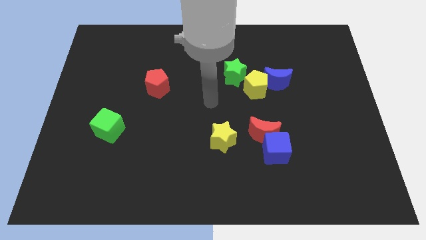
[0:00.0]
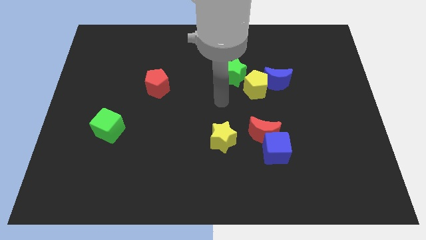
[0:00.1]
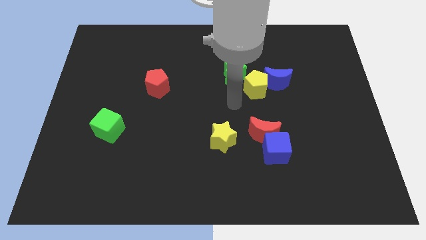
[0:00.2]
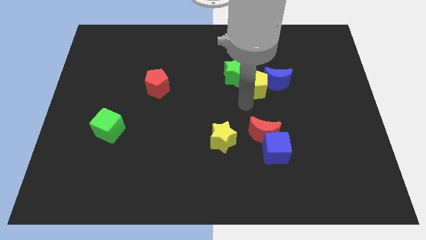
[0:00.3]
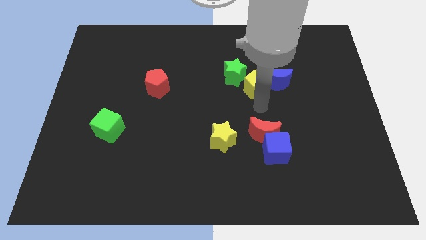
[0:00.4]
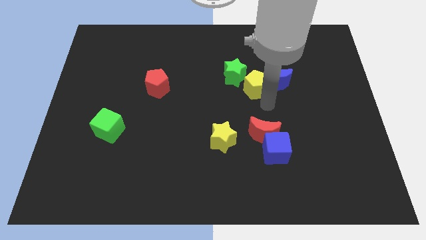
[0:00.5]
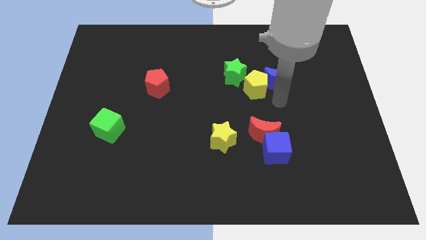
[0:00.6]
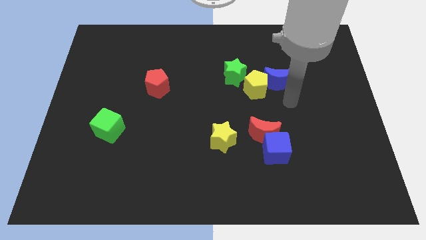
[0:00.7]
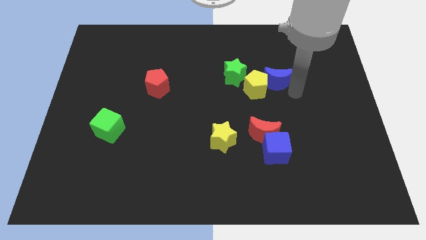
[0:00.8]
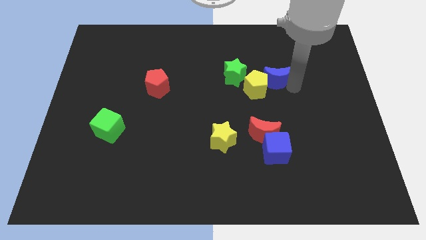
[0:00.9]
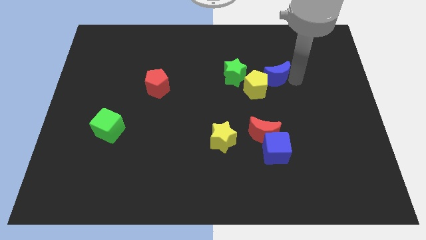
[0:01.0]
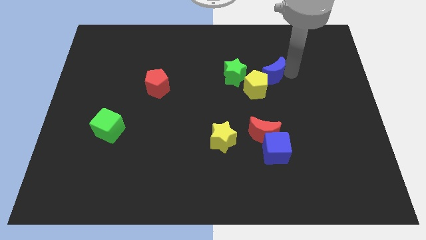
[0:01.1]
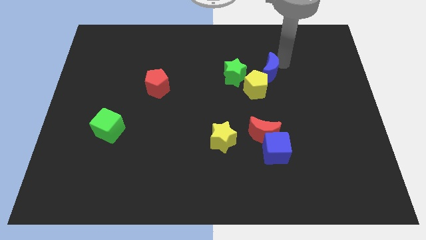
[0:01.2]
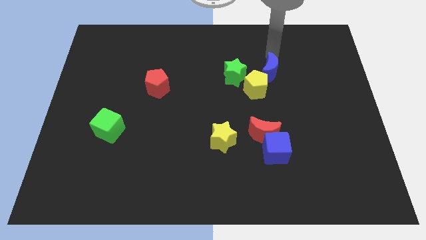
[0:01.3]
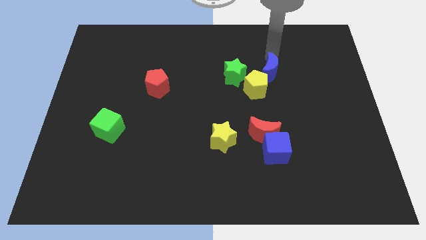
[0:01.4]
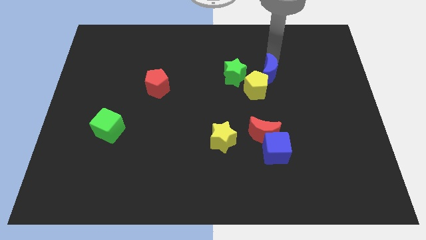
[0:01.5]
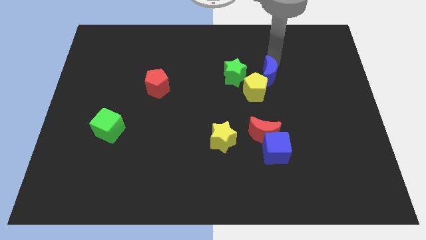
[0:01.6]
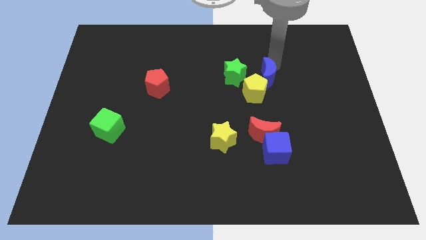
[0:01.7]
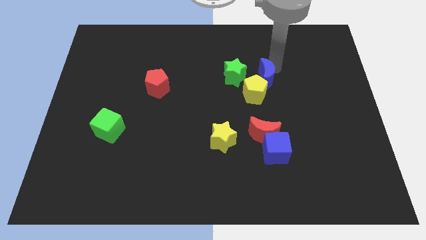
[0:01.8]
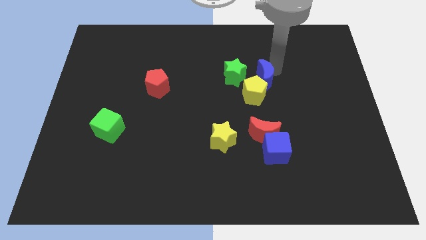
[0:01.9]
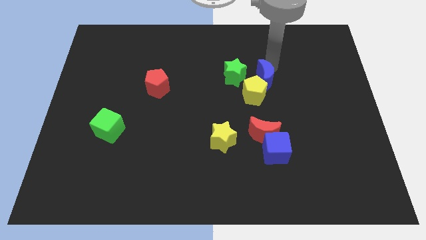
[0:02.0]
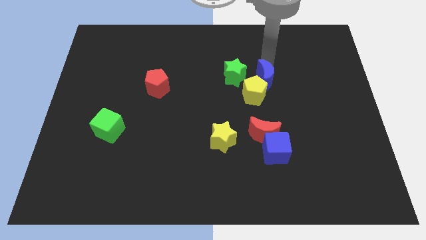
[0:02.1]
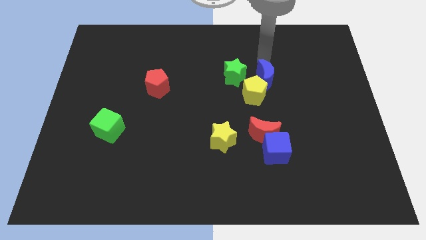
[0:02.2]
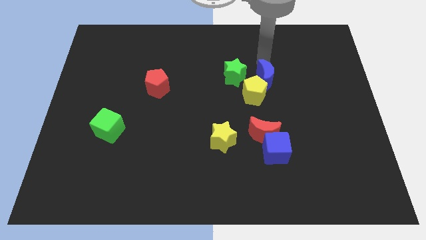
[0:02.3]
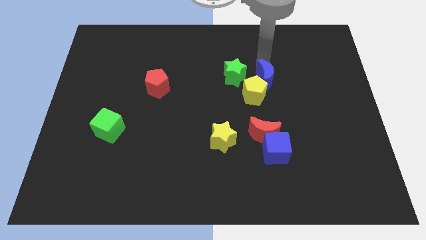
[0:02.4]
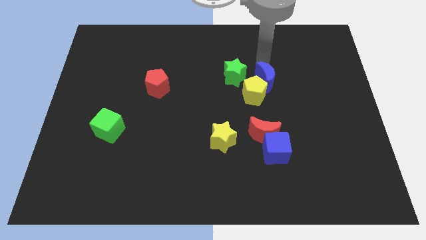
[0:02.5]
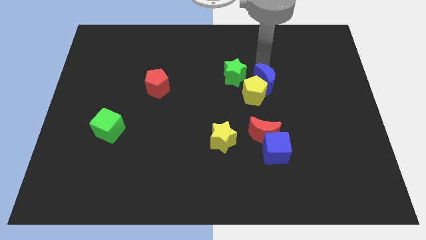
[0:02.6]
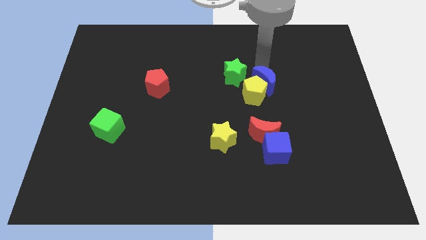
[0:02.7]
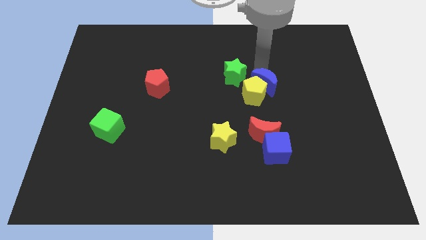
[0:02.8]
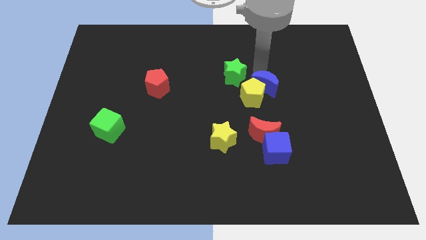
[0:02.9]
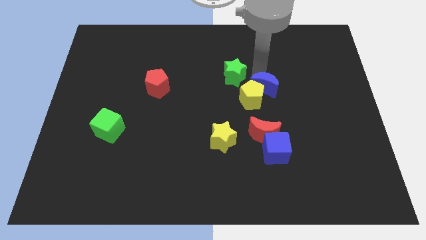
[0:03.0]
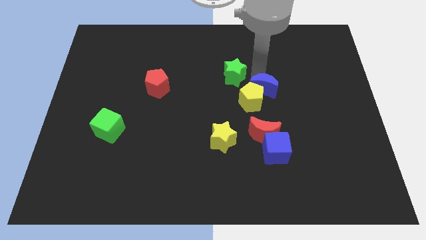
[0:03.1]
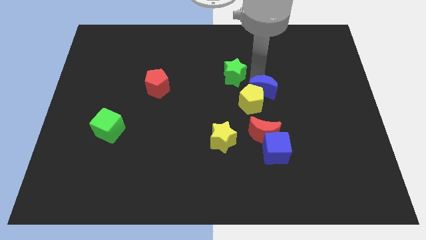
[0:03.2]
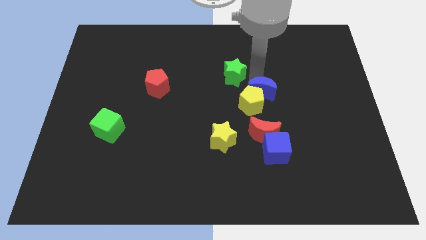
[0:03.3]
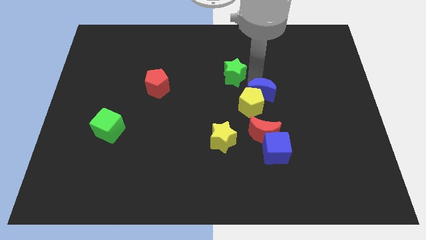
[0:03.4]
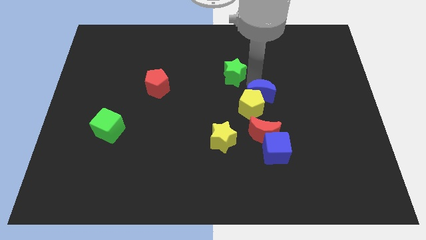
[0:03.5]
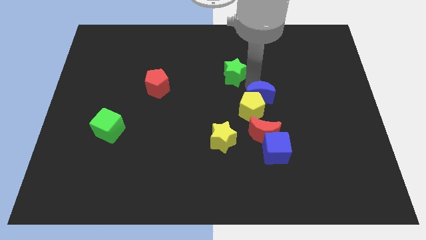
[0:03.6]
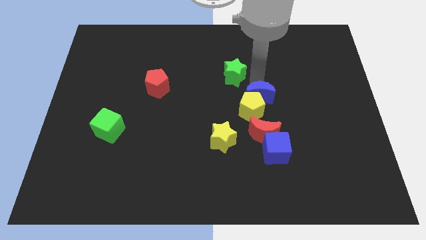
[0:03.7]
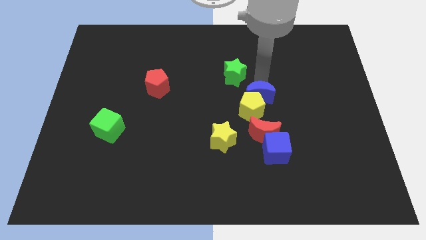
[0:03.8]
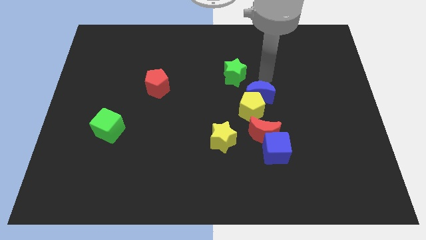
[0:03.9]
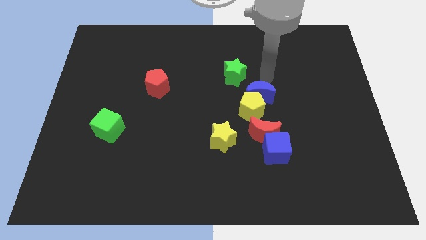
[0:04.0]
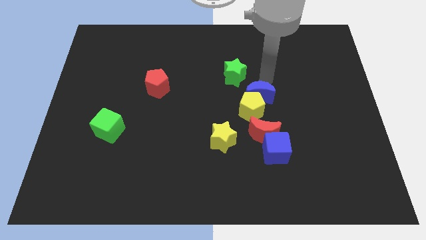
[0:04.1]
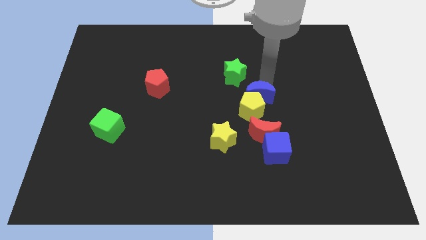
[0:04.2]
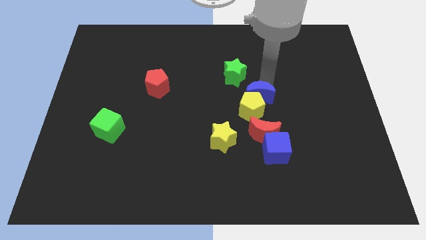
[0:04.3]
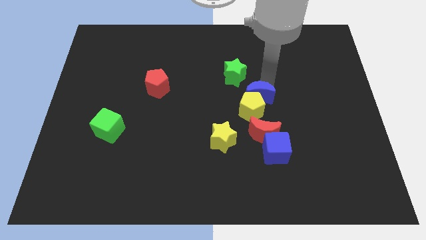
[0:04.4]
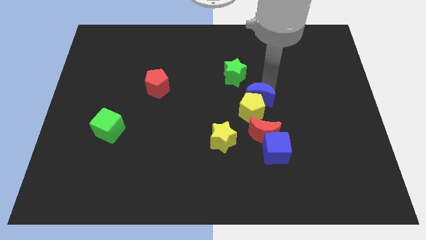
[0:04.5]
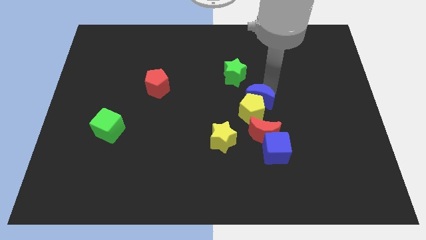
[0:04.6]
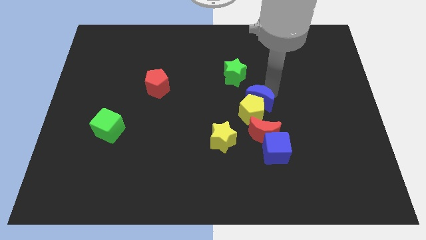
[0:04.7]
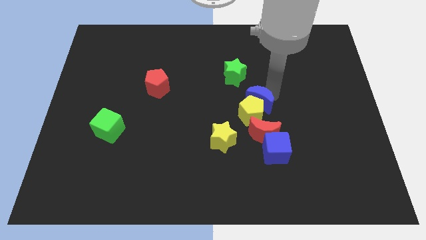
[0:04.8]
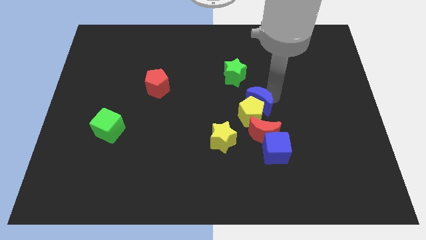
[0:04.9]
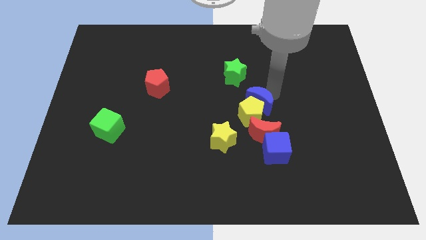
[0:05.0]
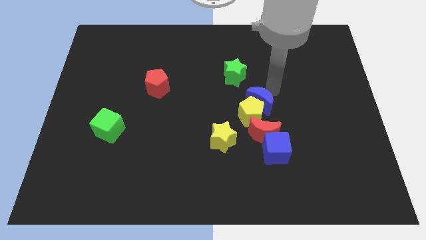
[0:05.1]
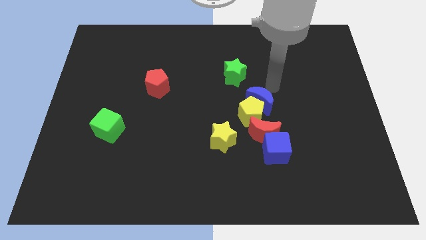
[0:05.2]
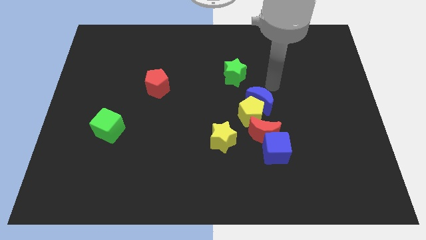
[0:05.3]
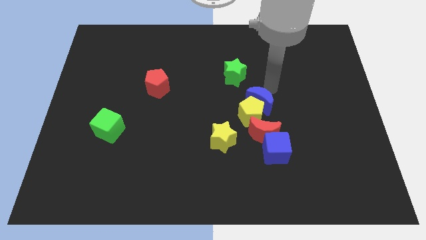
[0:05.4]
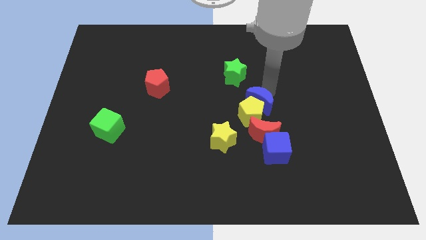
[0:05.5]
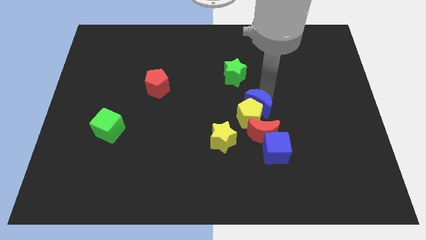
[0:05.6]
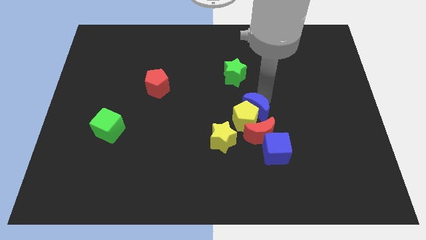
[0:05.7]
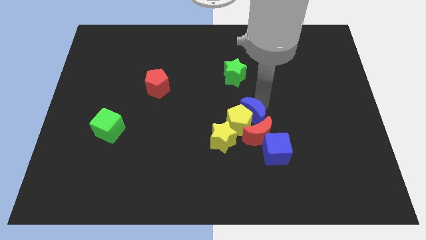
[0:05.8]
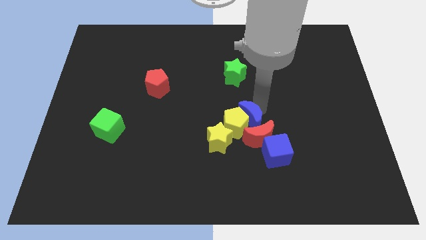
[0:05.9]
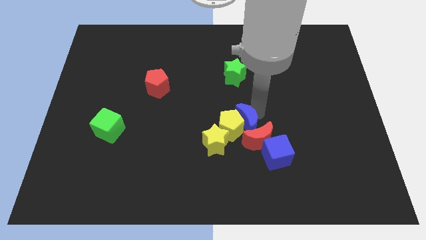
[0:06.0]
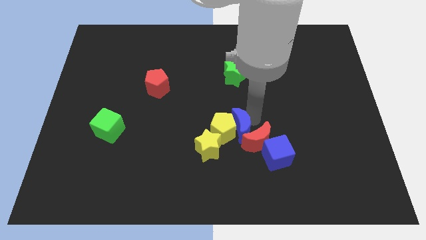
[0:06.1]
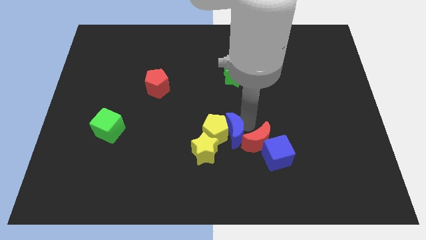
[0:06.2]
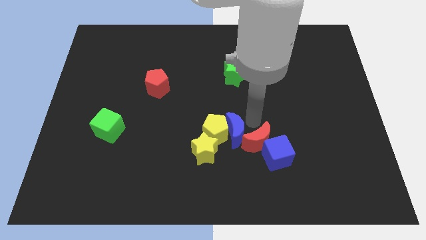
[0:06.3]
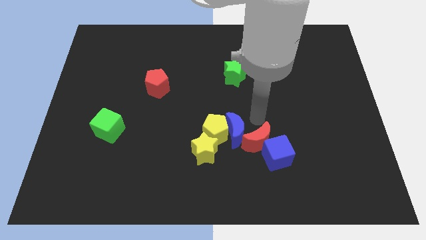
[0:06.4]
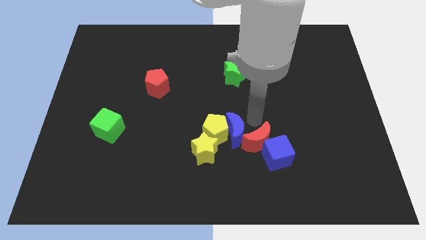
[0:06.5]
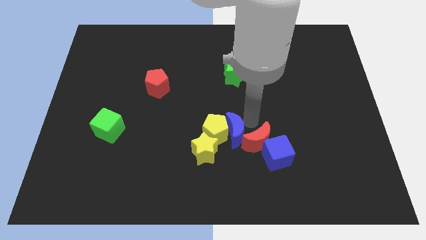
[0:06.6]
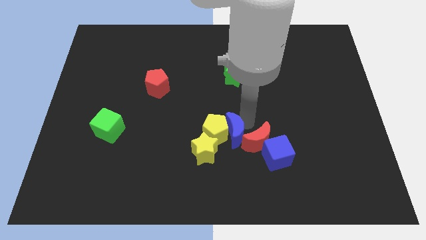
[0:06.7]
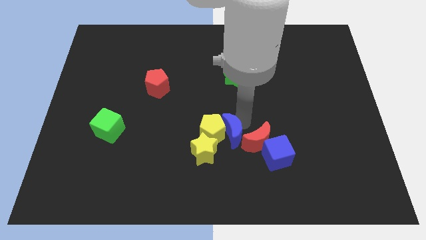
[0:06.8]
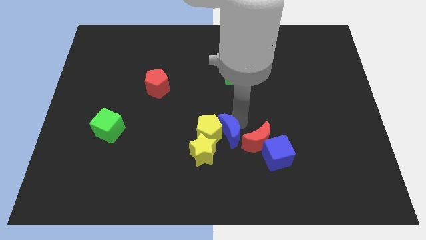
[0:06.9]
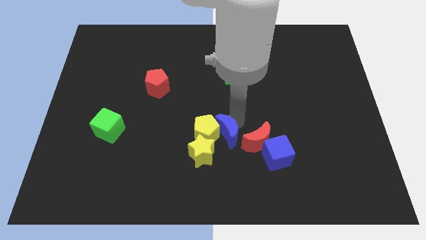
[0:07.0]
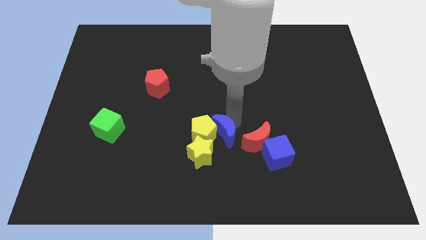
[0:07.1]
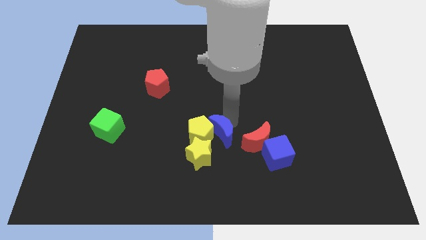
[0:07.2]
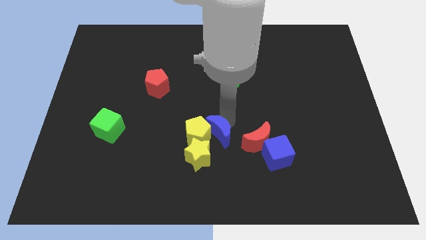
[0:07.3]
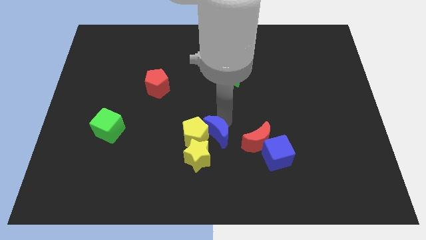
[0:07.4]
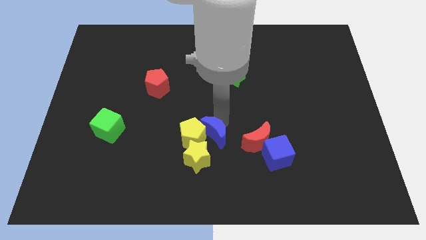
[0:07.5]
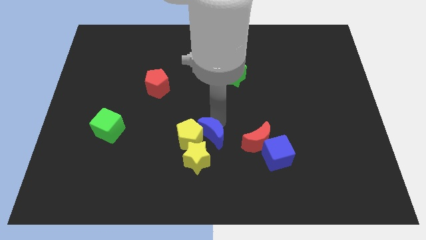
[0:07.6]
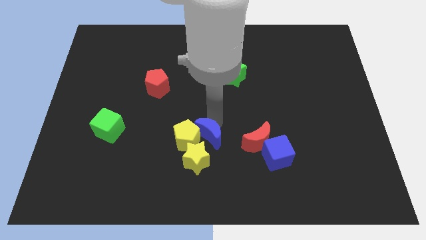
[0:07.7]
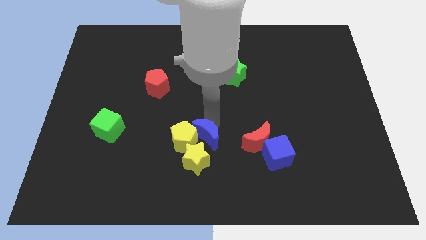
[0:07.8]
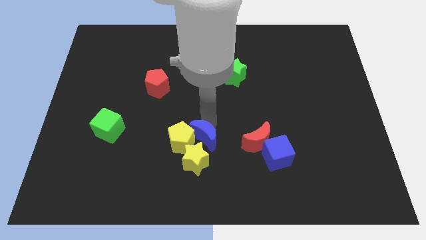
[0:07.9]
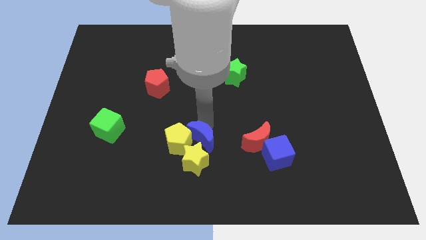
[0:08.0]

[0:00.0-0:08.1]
put the blue moon towards the yellow star
